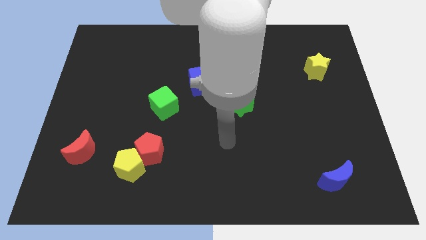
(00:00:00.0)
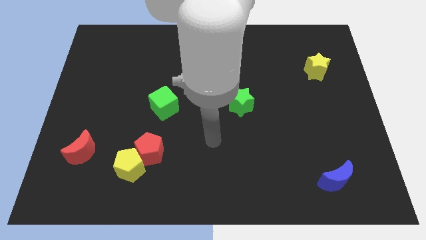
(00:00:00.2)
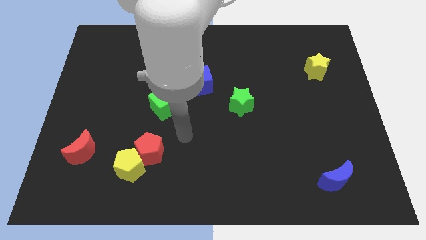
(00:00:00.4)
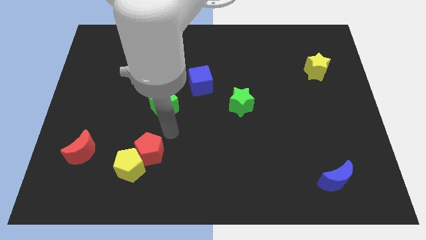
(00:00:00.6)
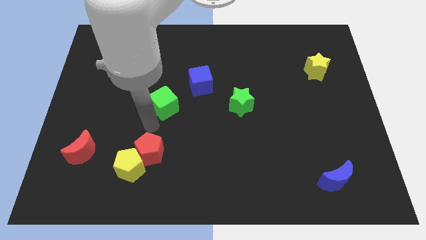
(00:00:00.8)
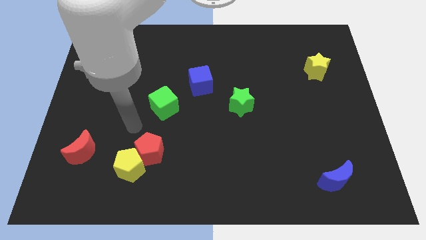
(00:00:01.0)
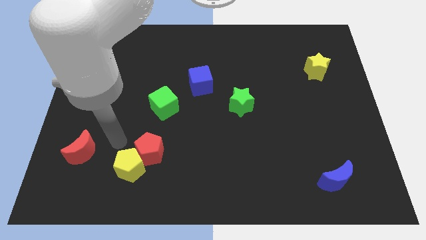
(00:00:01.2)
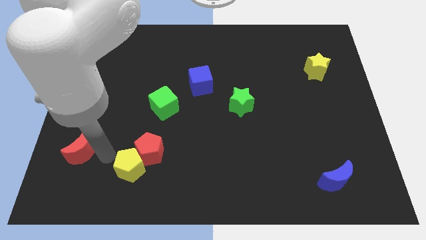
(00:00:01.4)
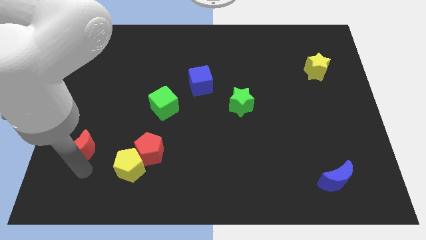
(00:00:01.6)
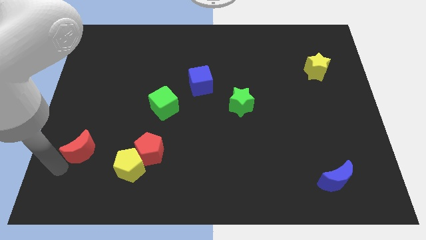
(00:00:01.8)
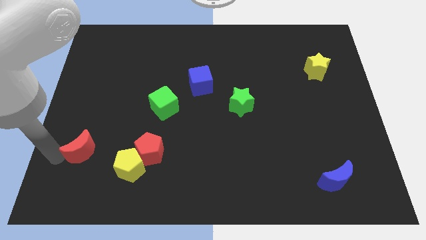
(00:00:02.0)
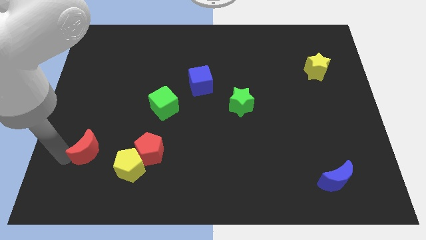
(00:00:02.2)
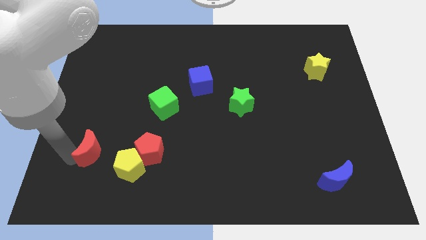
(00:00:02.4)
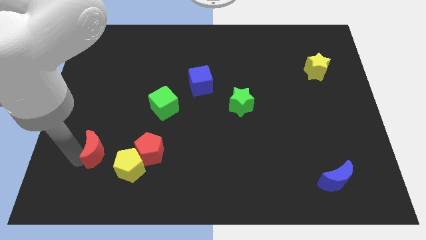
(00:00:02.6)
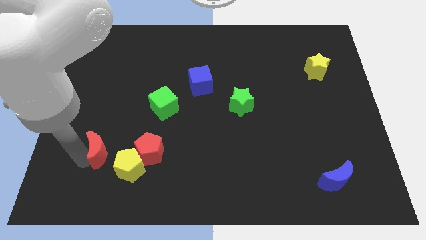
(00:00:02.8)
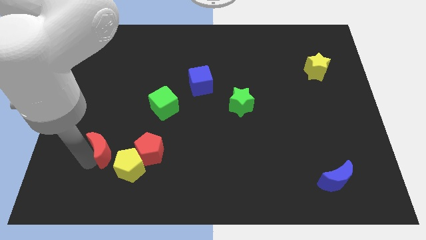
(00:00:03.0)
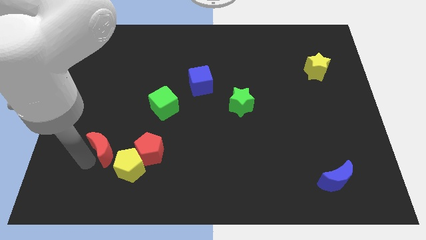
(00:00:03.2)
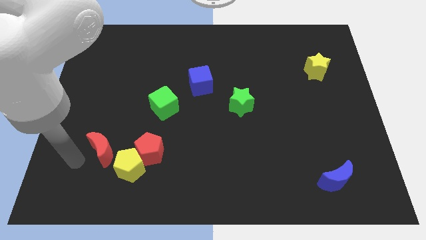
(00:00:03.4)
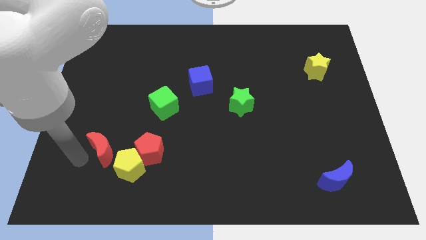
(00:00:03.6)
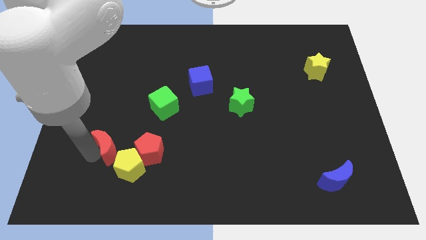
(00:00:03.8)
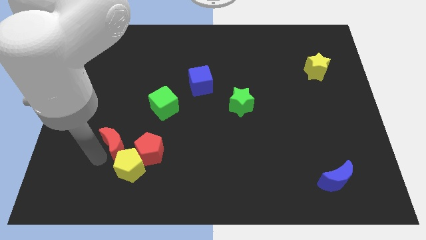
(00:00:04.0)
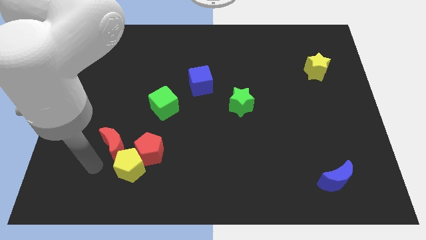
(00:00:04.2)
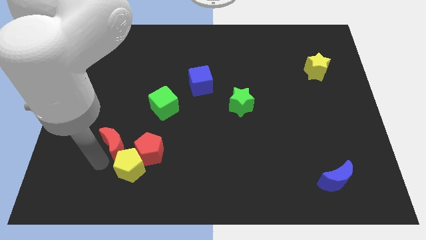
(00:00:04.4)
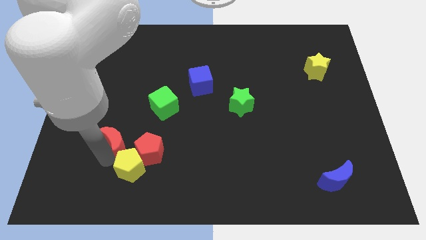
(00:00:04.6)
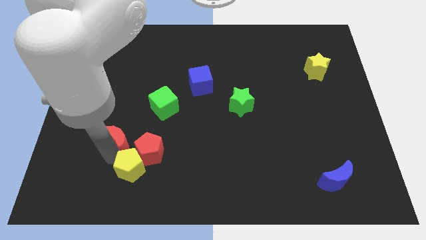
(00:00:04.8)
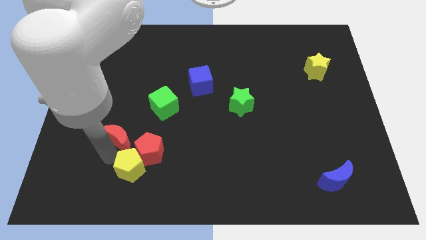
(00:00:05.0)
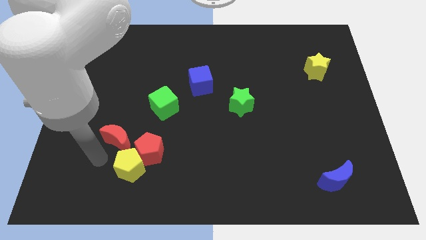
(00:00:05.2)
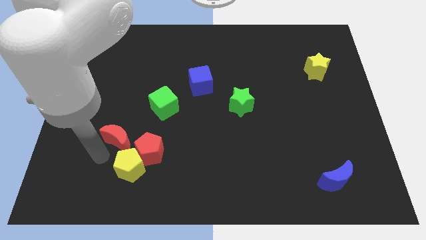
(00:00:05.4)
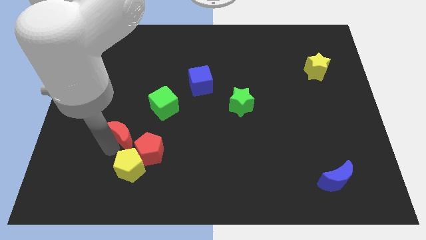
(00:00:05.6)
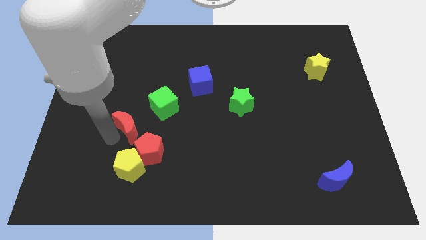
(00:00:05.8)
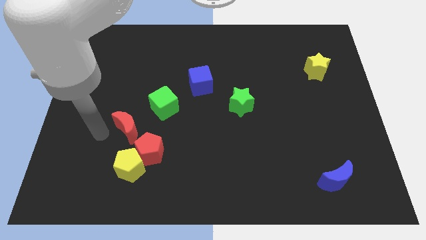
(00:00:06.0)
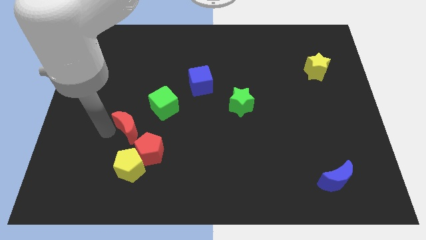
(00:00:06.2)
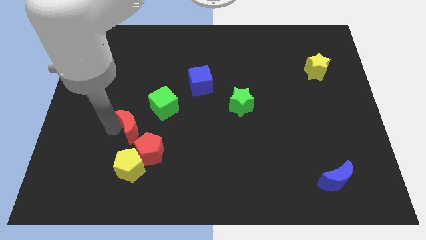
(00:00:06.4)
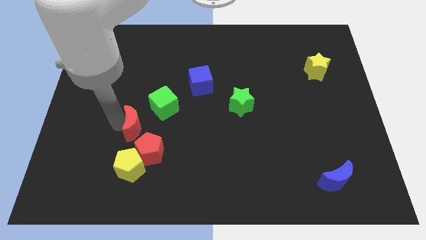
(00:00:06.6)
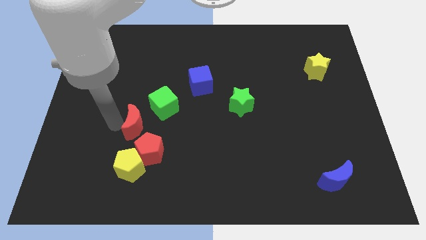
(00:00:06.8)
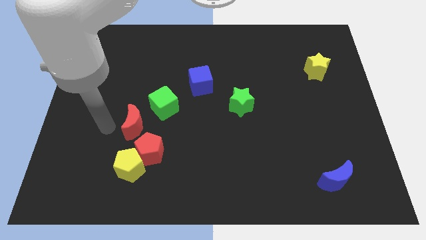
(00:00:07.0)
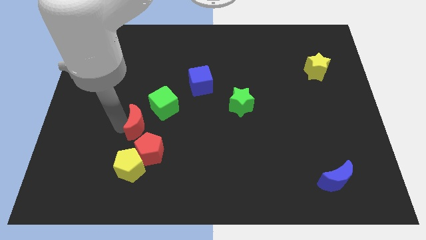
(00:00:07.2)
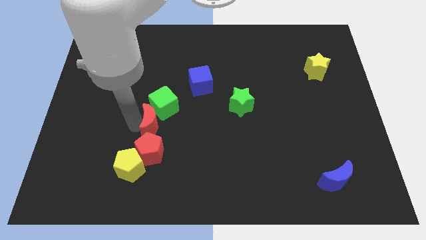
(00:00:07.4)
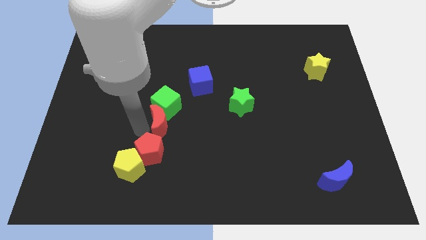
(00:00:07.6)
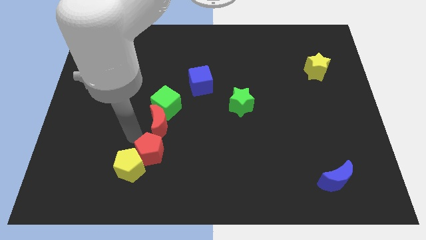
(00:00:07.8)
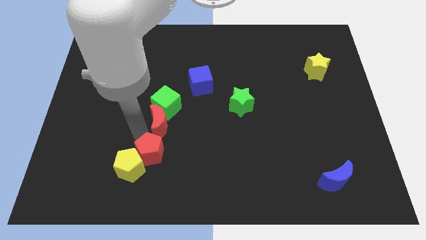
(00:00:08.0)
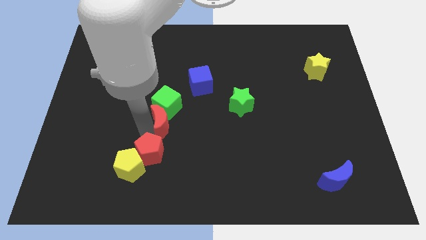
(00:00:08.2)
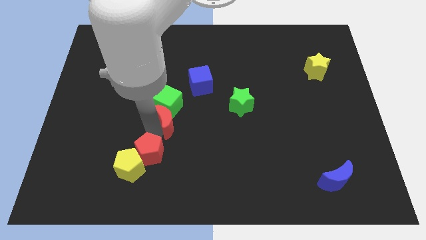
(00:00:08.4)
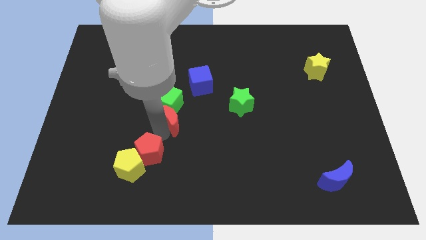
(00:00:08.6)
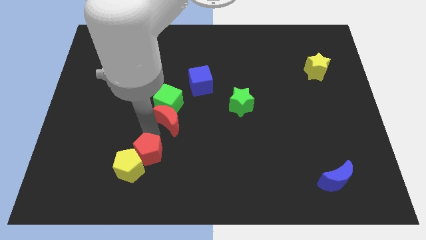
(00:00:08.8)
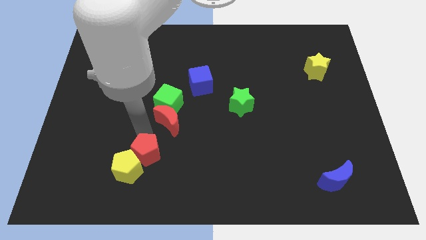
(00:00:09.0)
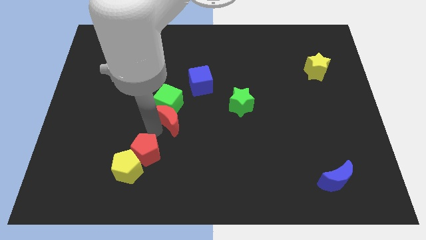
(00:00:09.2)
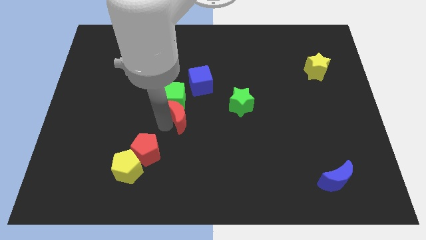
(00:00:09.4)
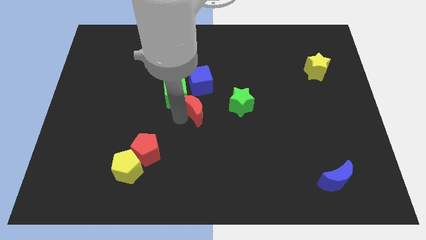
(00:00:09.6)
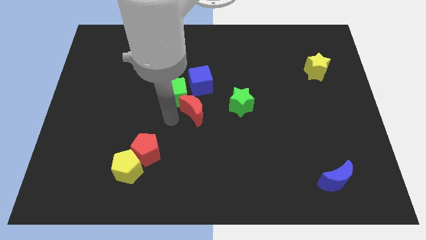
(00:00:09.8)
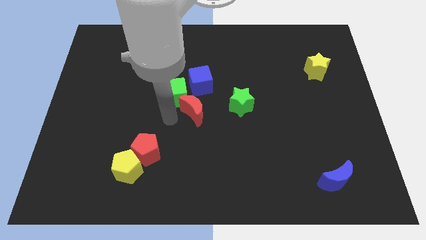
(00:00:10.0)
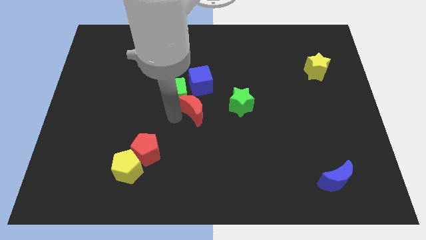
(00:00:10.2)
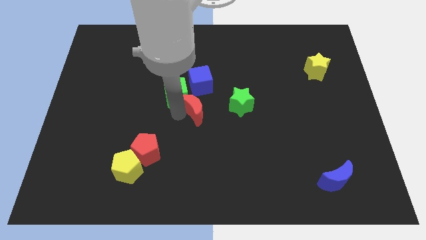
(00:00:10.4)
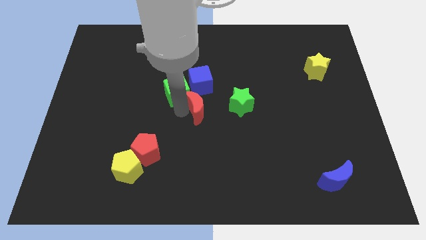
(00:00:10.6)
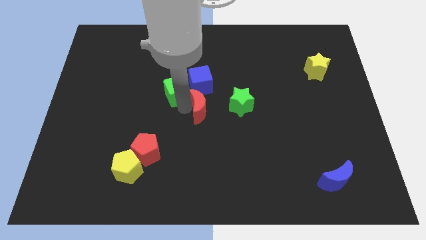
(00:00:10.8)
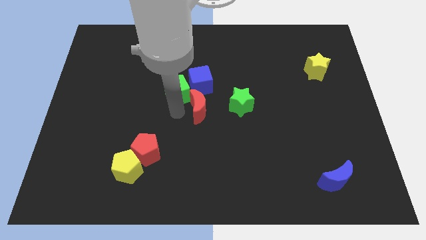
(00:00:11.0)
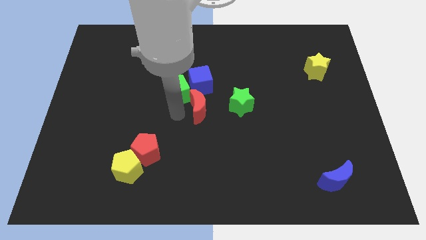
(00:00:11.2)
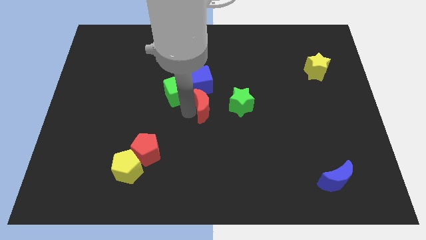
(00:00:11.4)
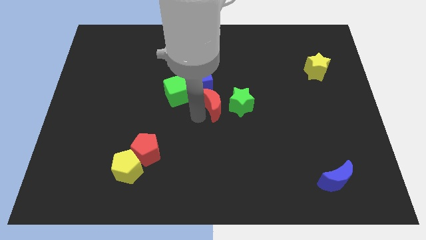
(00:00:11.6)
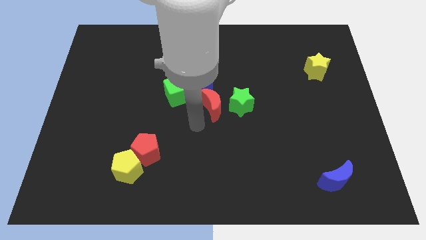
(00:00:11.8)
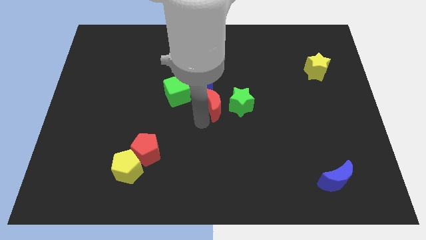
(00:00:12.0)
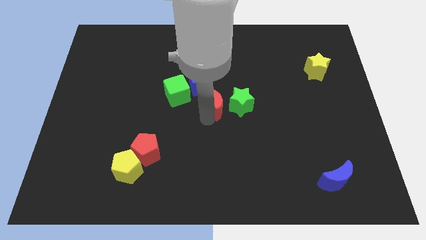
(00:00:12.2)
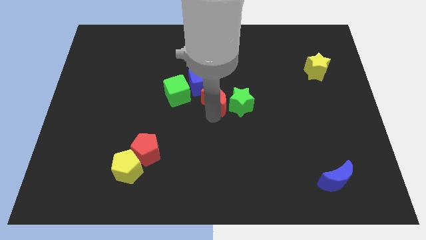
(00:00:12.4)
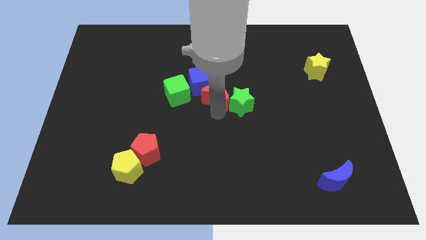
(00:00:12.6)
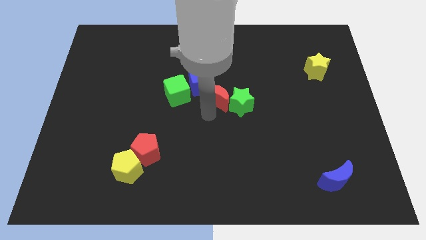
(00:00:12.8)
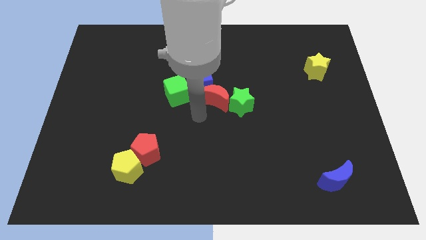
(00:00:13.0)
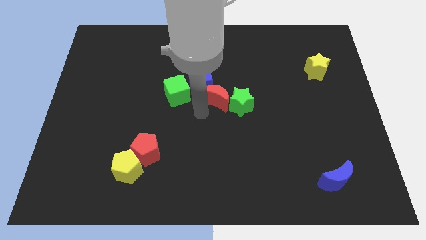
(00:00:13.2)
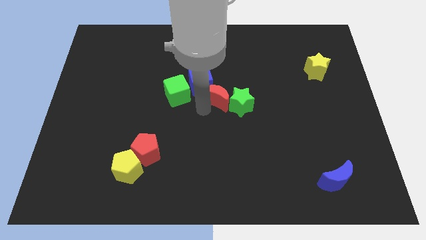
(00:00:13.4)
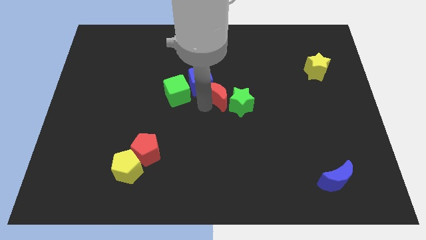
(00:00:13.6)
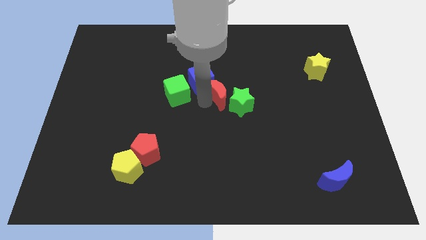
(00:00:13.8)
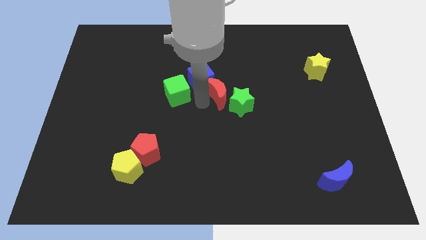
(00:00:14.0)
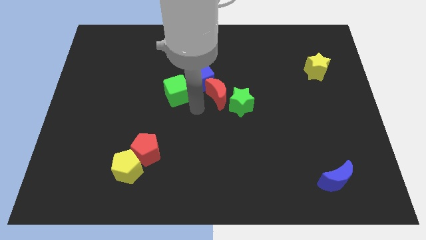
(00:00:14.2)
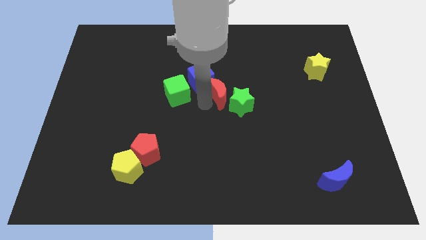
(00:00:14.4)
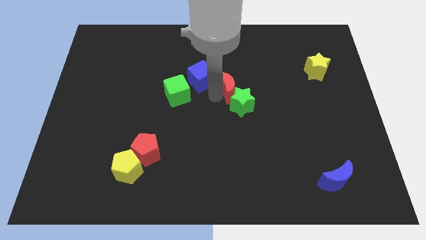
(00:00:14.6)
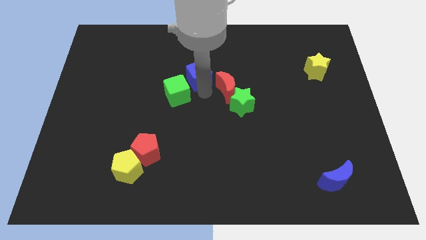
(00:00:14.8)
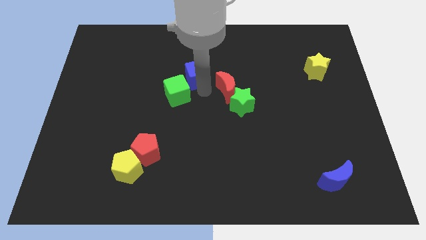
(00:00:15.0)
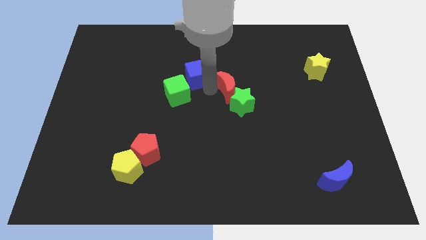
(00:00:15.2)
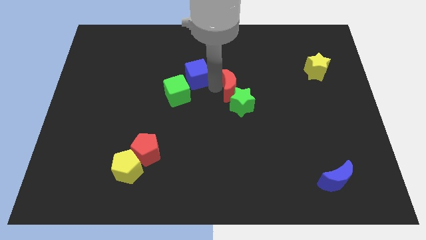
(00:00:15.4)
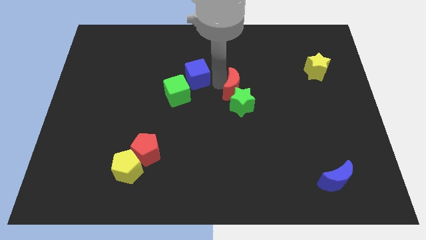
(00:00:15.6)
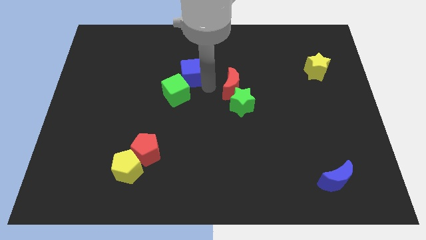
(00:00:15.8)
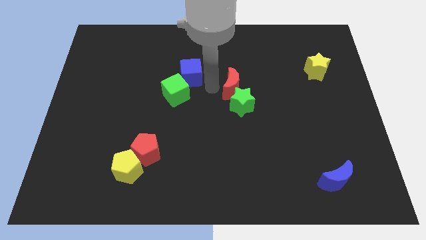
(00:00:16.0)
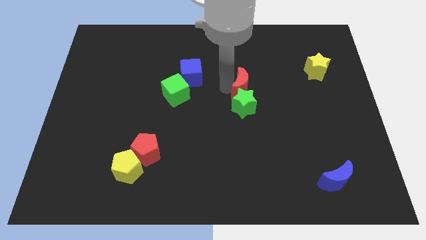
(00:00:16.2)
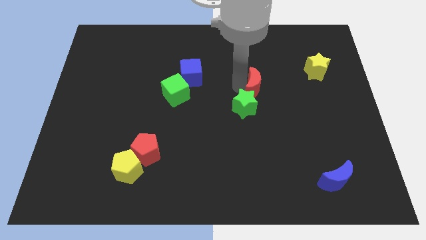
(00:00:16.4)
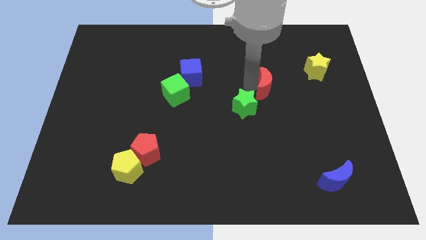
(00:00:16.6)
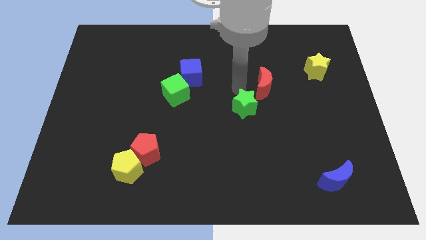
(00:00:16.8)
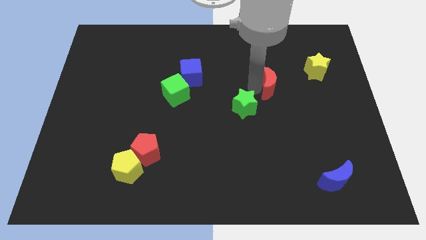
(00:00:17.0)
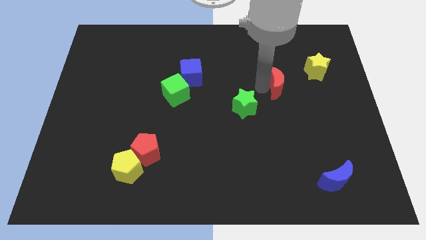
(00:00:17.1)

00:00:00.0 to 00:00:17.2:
move the red moon to the bottom left of the yellow star
